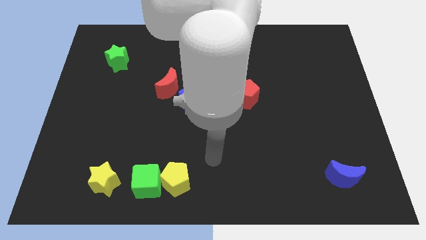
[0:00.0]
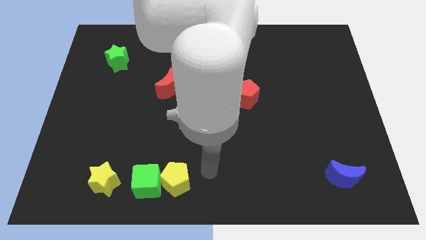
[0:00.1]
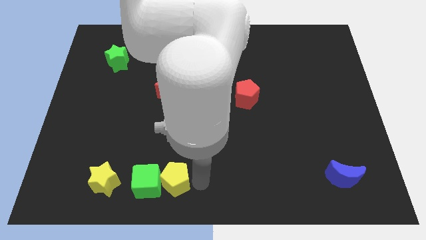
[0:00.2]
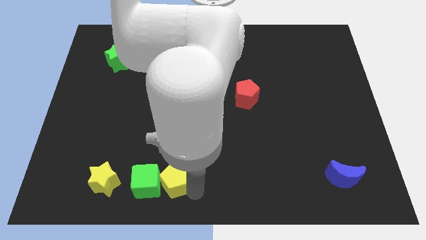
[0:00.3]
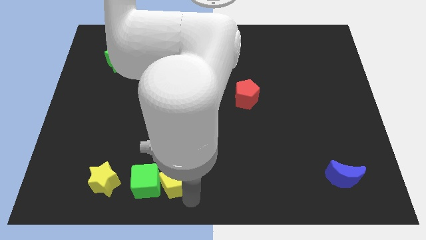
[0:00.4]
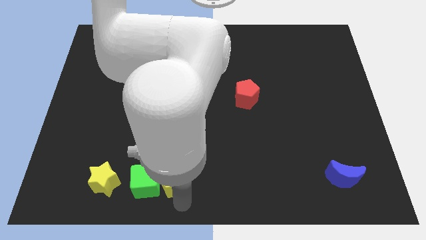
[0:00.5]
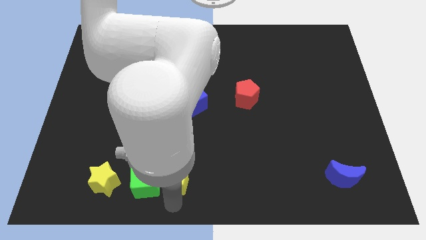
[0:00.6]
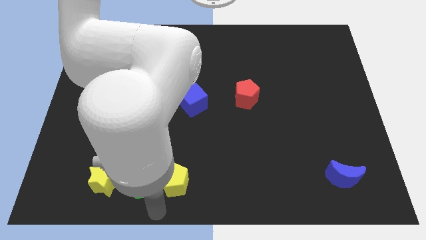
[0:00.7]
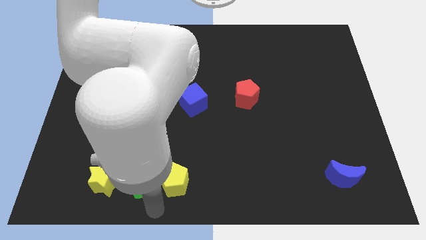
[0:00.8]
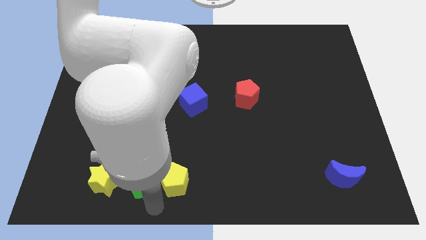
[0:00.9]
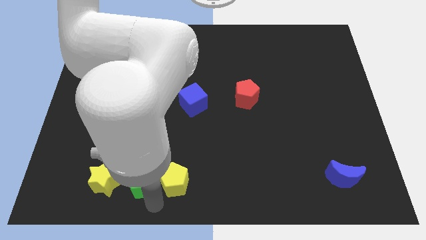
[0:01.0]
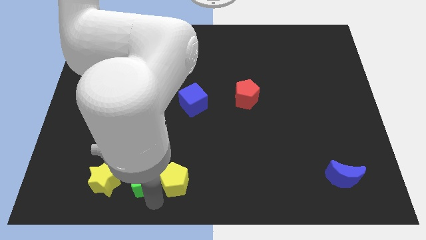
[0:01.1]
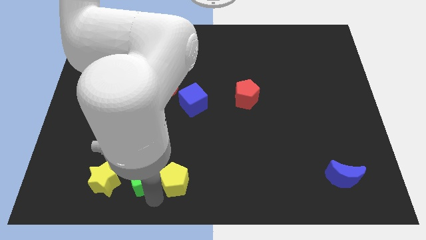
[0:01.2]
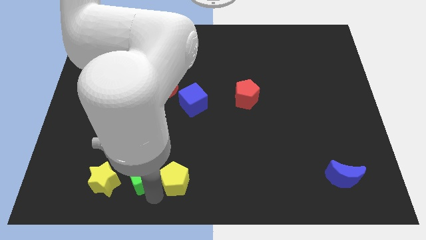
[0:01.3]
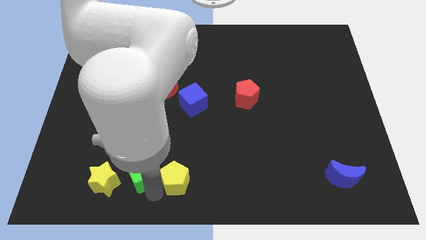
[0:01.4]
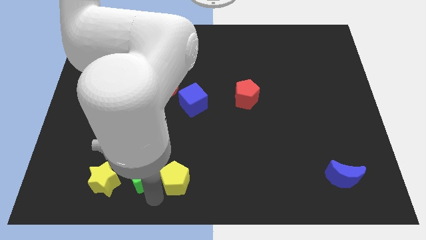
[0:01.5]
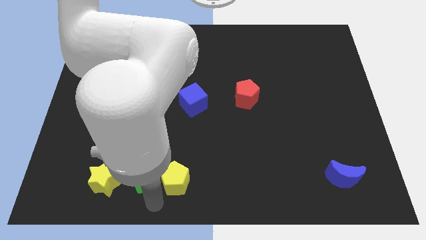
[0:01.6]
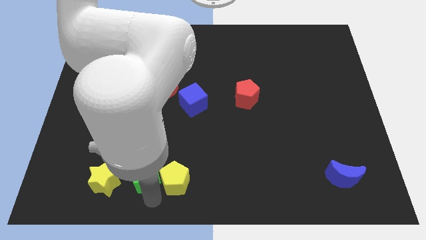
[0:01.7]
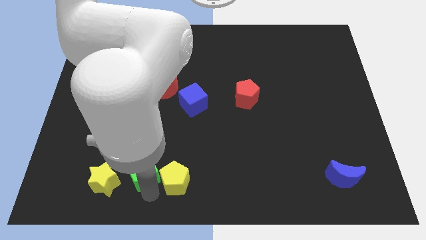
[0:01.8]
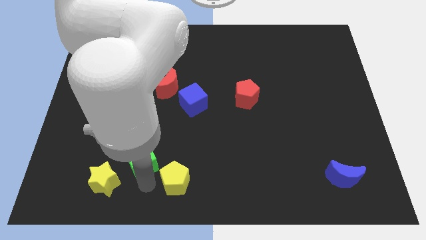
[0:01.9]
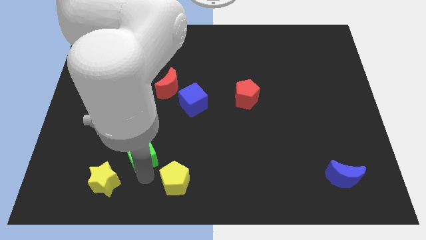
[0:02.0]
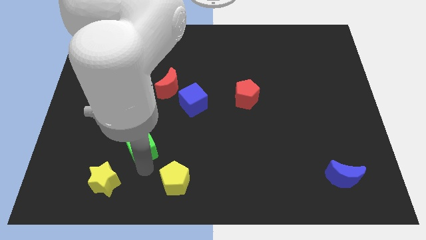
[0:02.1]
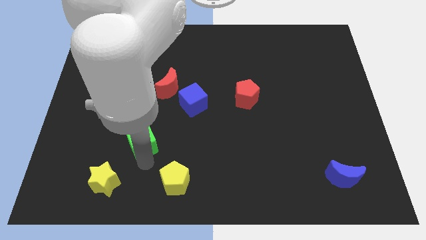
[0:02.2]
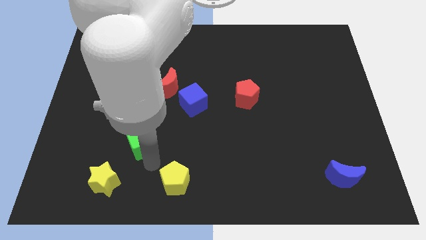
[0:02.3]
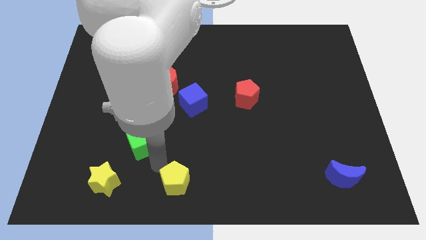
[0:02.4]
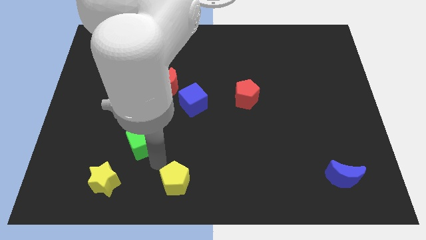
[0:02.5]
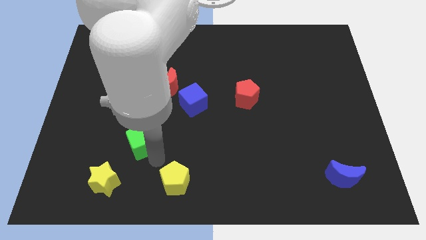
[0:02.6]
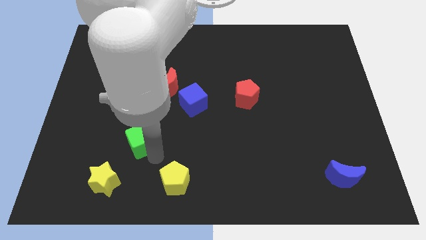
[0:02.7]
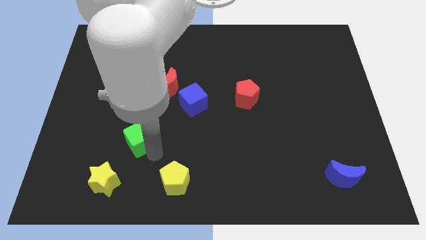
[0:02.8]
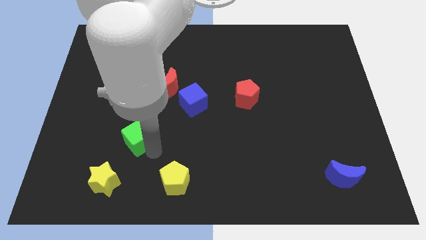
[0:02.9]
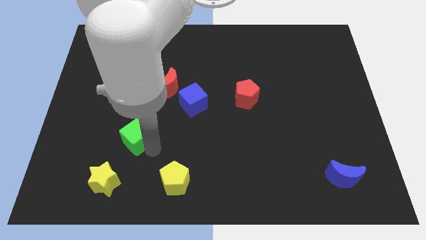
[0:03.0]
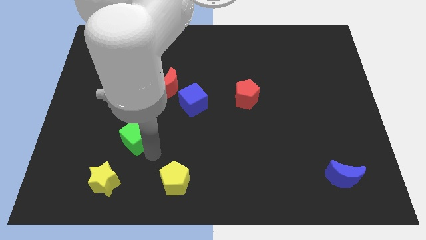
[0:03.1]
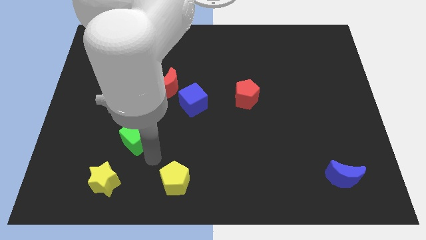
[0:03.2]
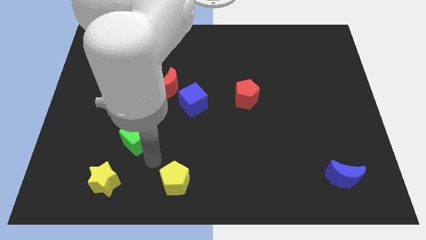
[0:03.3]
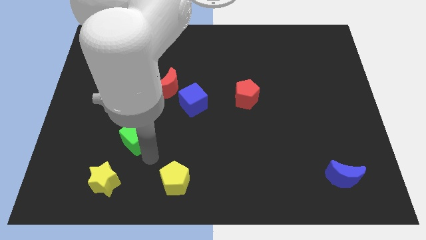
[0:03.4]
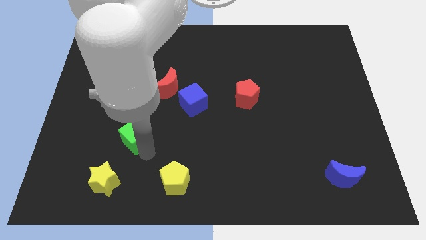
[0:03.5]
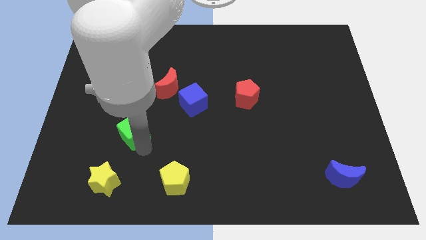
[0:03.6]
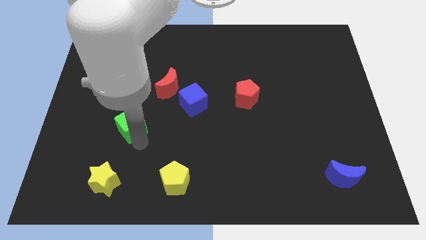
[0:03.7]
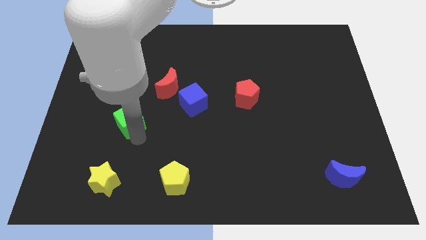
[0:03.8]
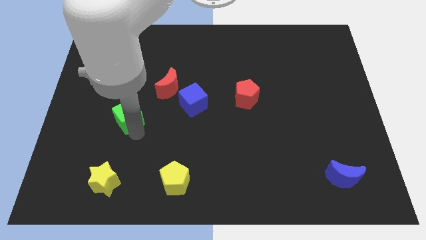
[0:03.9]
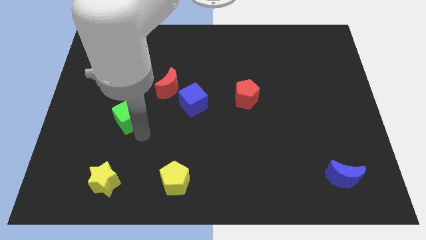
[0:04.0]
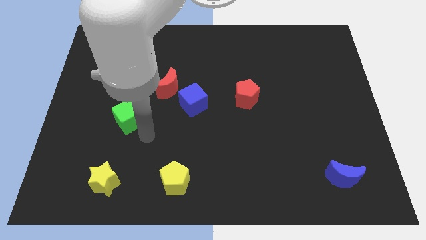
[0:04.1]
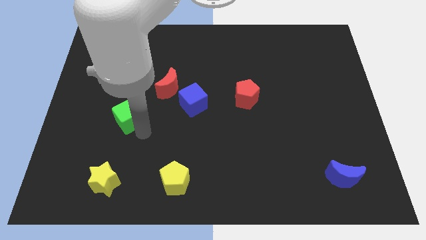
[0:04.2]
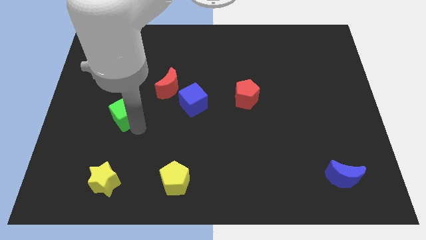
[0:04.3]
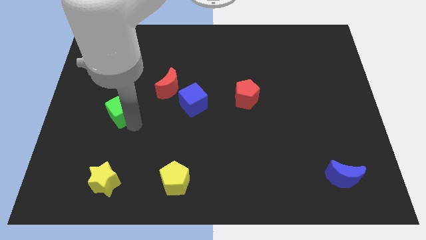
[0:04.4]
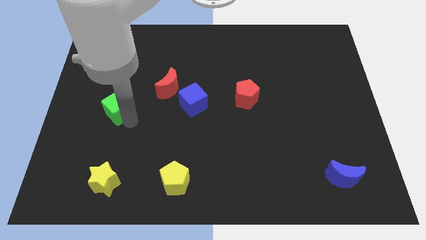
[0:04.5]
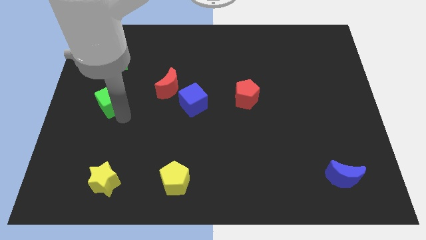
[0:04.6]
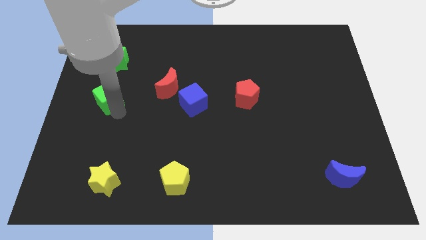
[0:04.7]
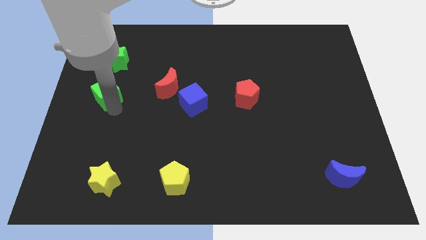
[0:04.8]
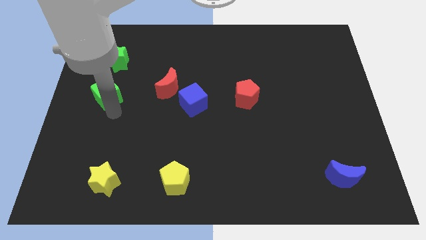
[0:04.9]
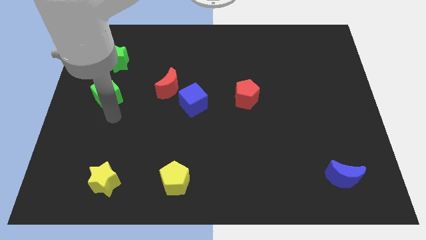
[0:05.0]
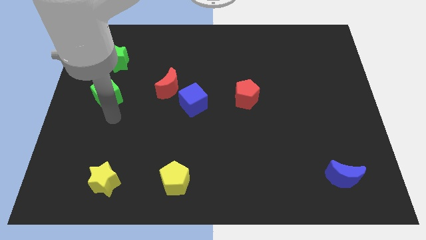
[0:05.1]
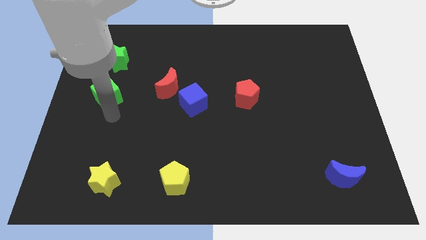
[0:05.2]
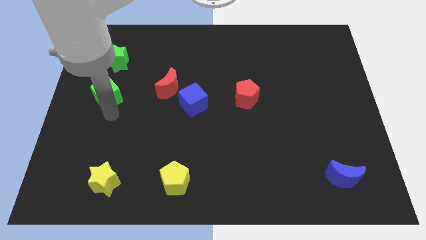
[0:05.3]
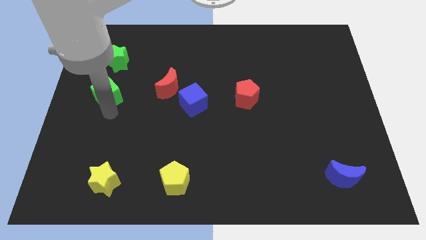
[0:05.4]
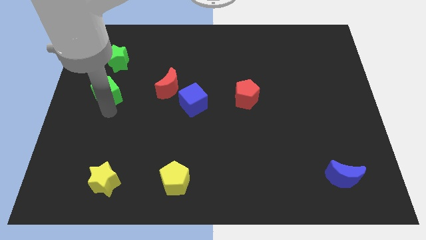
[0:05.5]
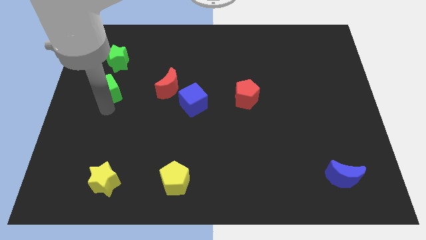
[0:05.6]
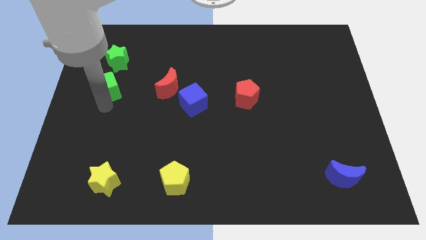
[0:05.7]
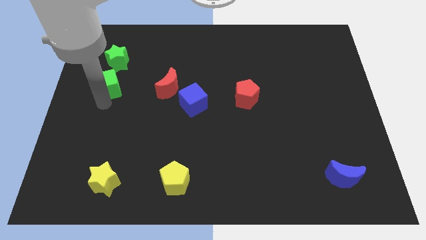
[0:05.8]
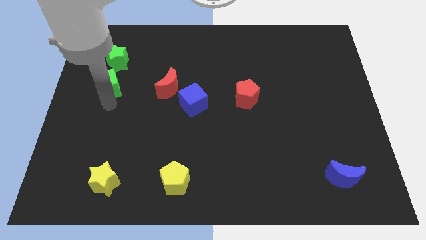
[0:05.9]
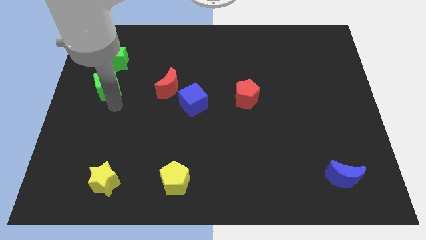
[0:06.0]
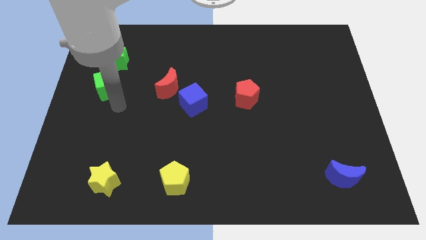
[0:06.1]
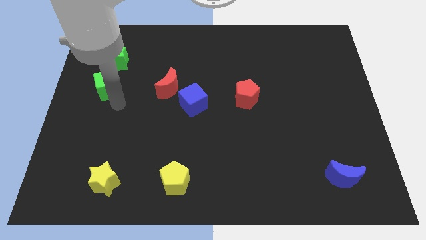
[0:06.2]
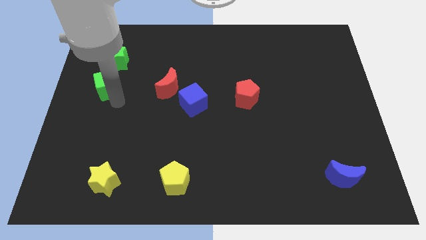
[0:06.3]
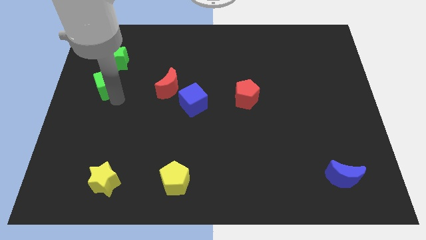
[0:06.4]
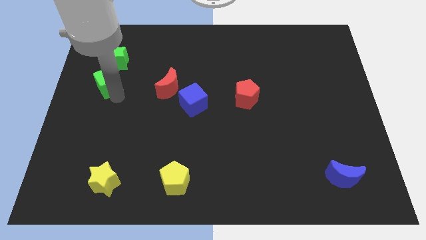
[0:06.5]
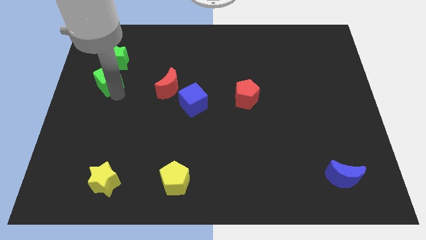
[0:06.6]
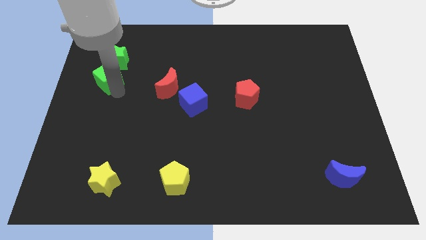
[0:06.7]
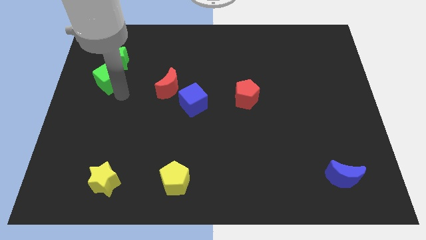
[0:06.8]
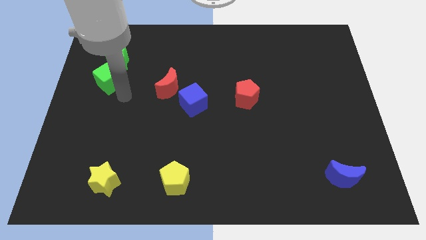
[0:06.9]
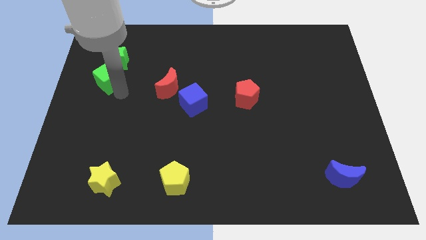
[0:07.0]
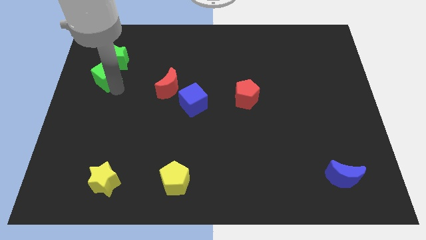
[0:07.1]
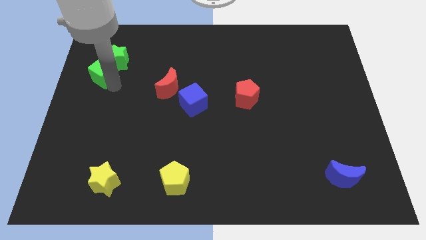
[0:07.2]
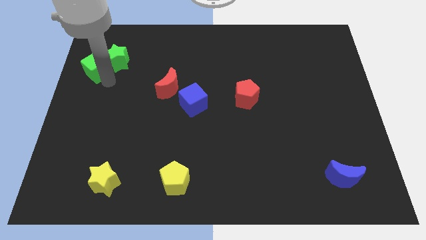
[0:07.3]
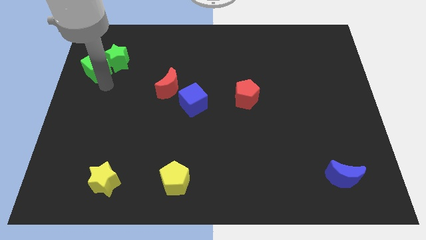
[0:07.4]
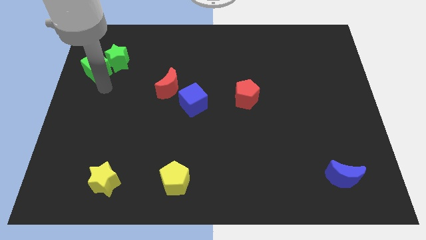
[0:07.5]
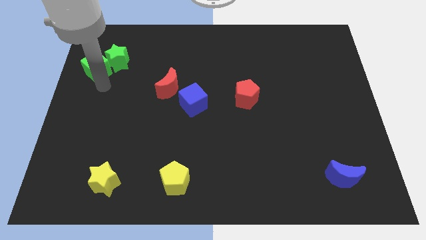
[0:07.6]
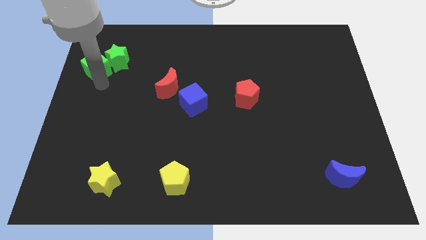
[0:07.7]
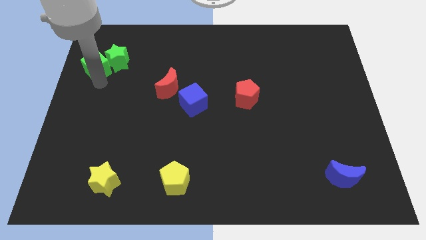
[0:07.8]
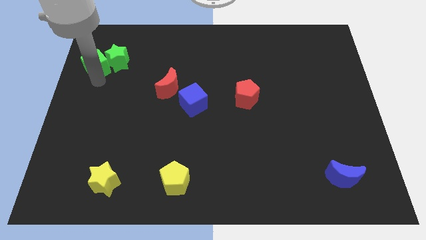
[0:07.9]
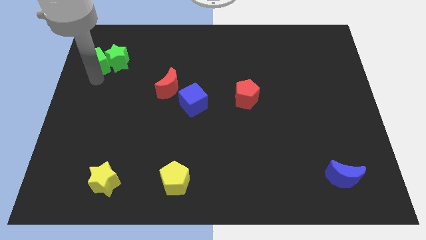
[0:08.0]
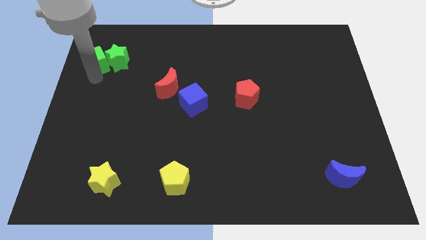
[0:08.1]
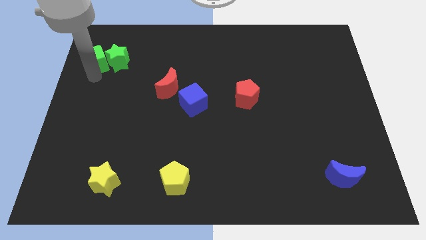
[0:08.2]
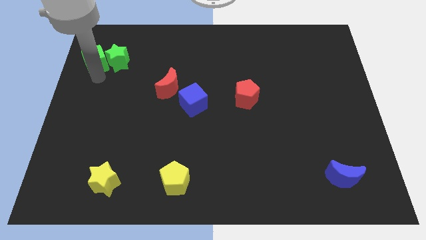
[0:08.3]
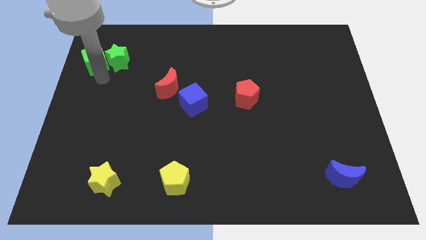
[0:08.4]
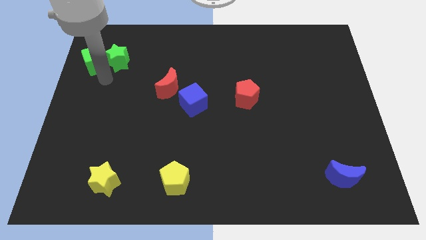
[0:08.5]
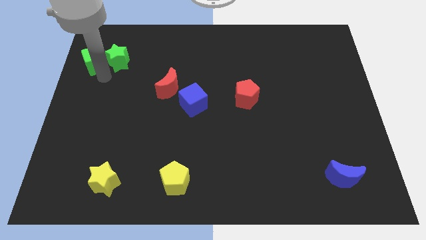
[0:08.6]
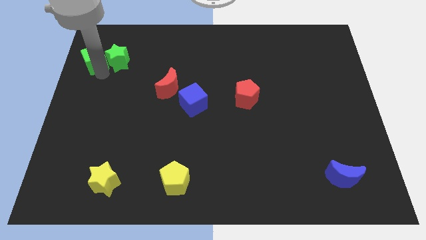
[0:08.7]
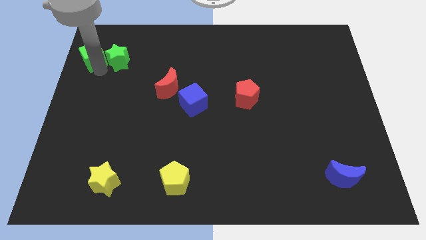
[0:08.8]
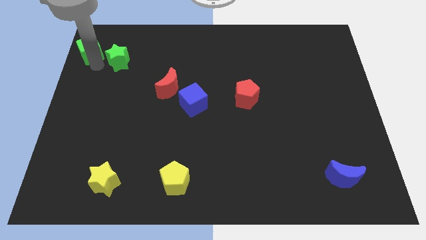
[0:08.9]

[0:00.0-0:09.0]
move the green cube to the top left of the board
